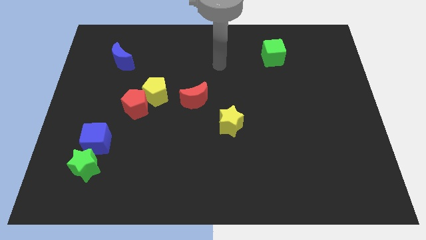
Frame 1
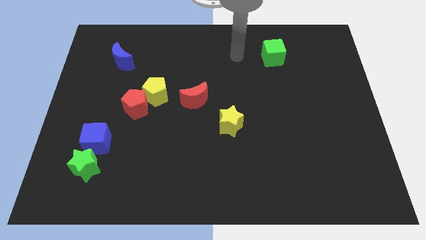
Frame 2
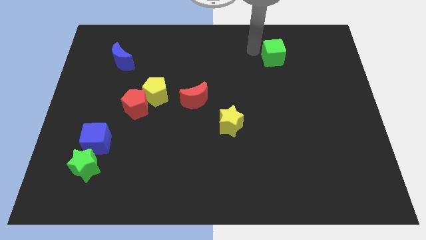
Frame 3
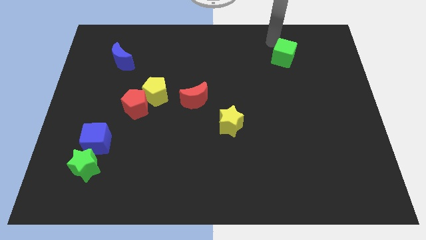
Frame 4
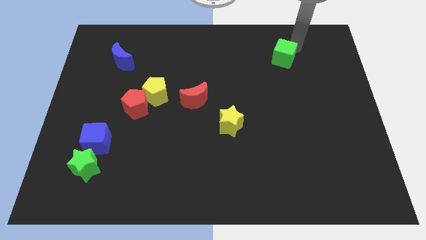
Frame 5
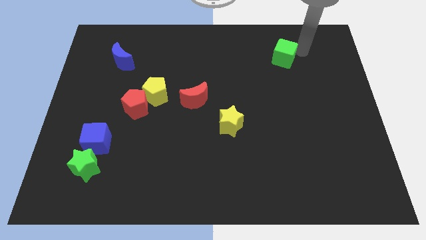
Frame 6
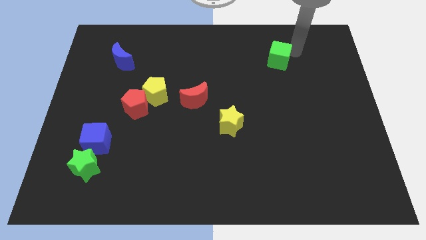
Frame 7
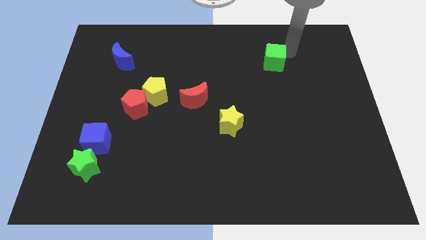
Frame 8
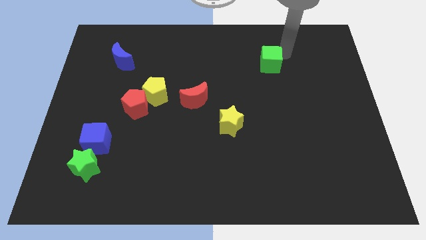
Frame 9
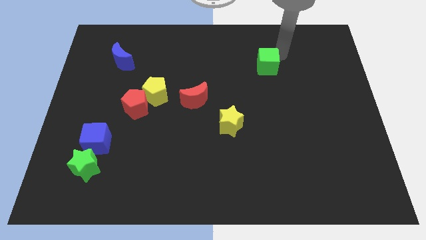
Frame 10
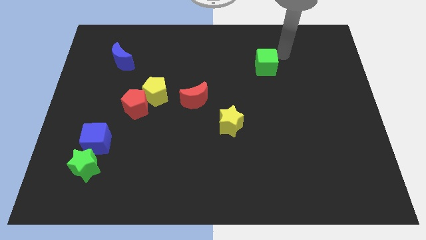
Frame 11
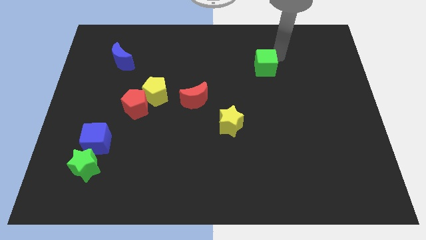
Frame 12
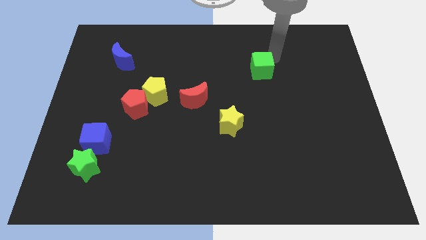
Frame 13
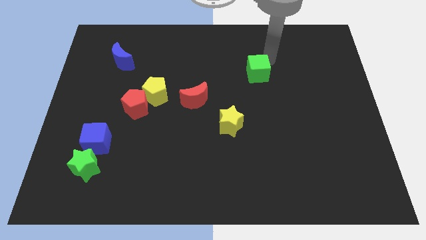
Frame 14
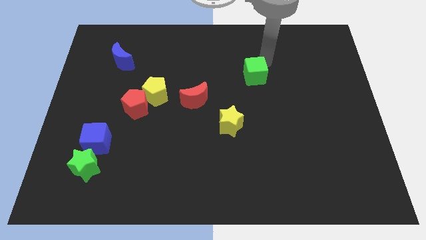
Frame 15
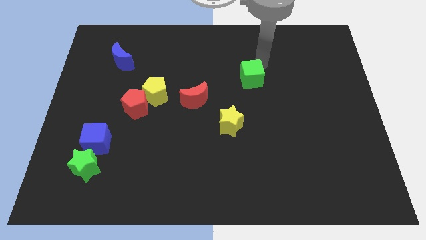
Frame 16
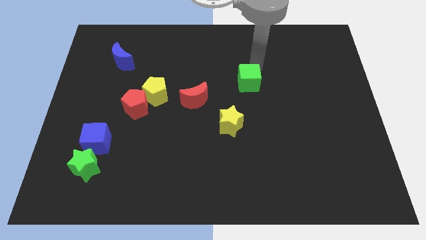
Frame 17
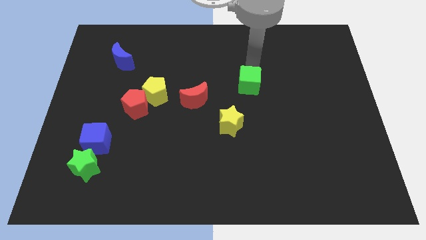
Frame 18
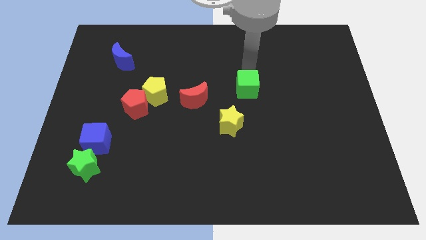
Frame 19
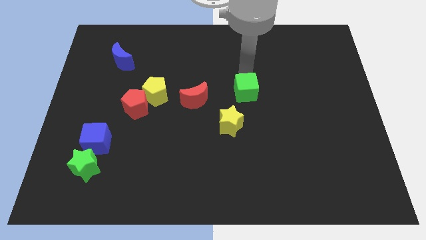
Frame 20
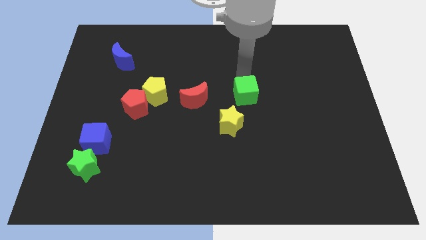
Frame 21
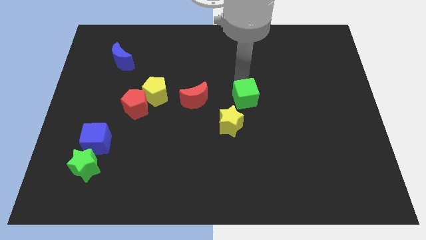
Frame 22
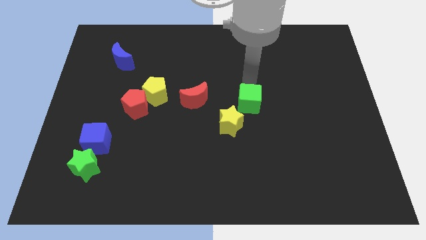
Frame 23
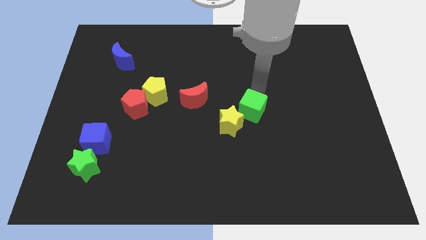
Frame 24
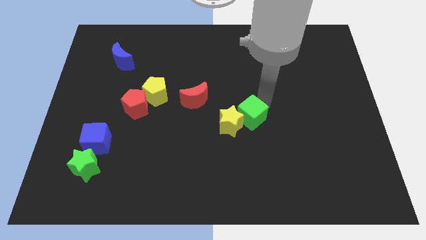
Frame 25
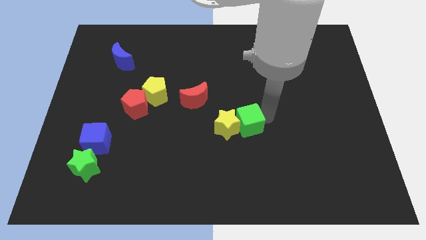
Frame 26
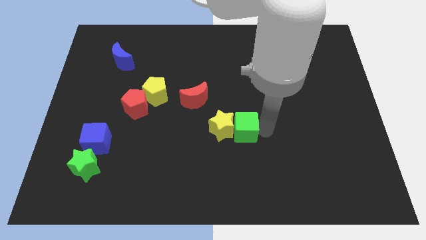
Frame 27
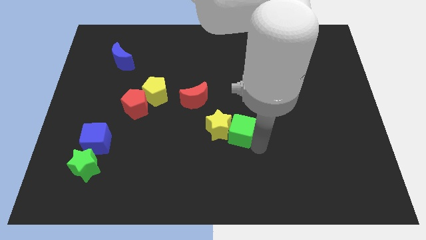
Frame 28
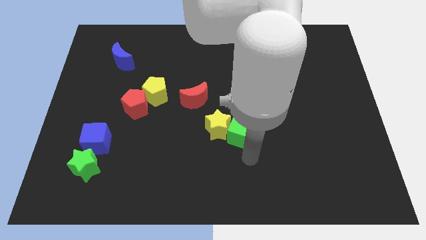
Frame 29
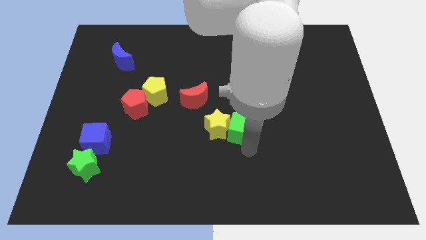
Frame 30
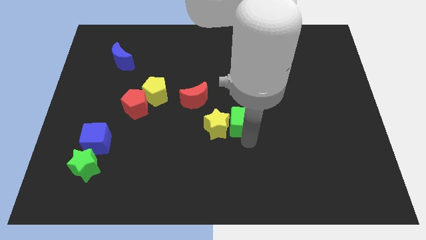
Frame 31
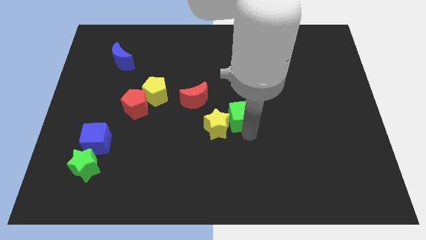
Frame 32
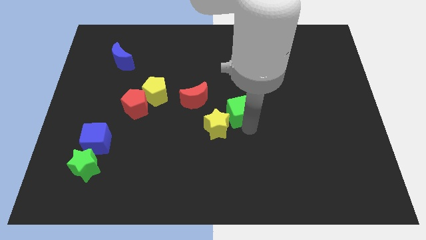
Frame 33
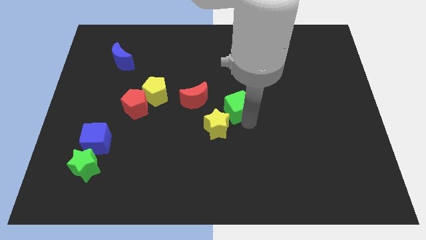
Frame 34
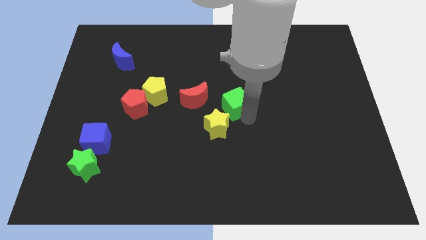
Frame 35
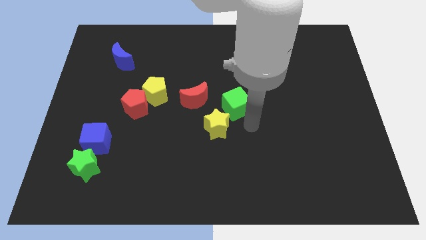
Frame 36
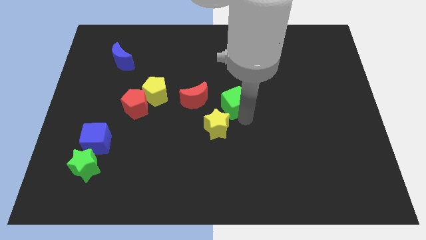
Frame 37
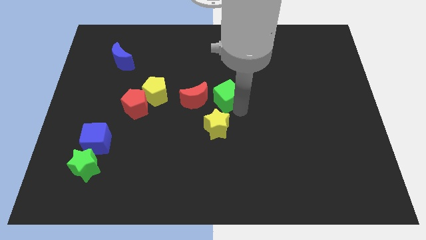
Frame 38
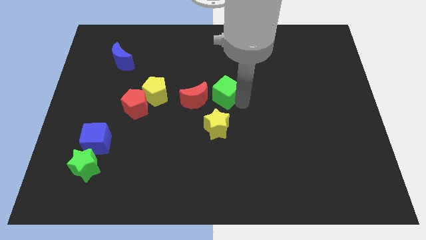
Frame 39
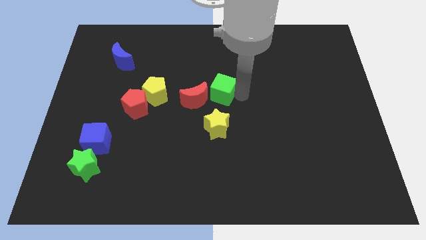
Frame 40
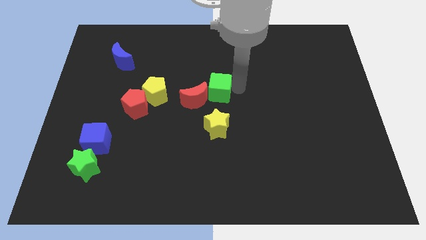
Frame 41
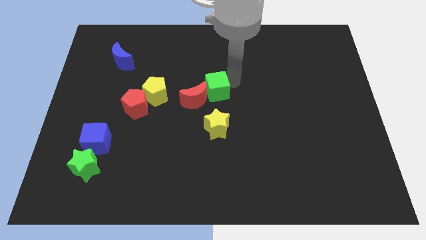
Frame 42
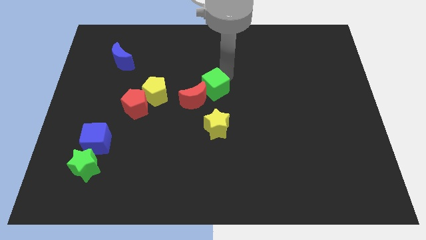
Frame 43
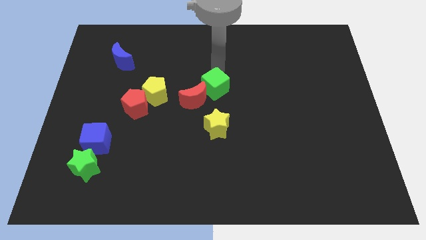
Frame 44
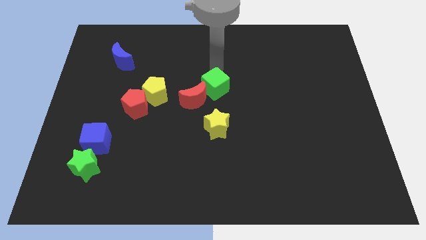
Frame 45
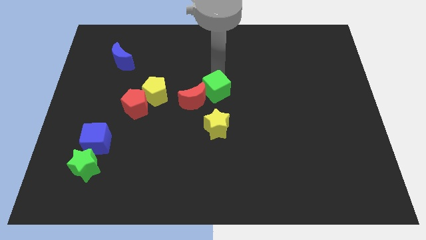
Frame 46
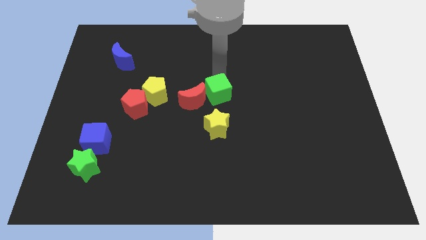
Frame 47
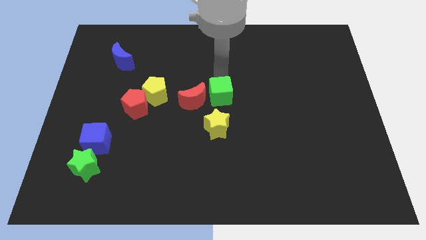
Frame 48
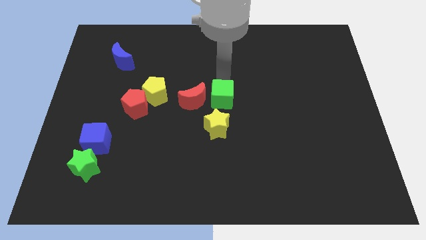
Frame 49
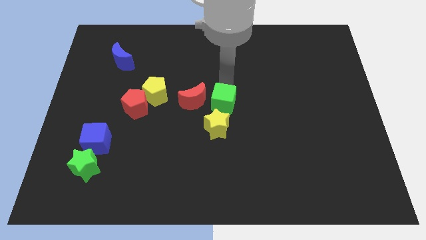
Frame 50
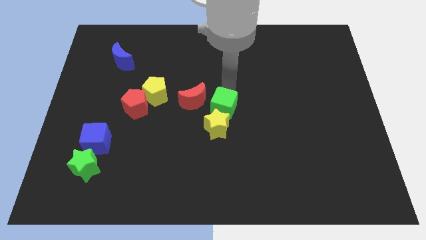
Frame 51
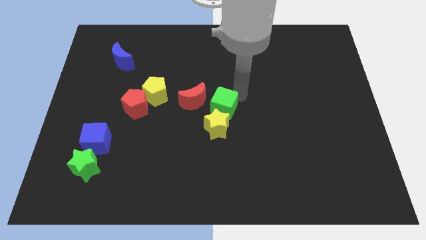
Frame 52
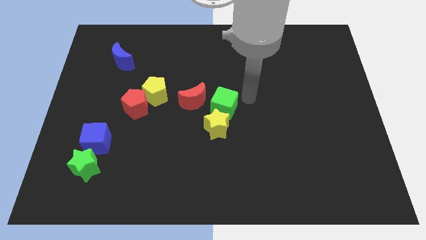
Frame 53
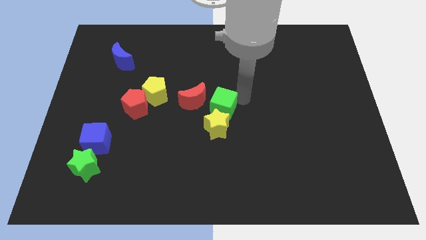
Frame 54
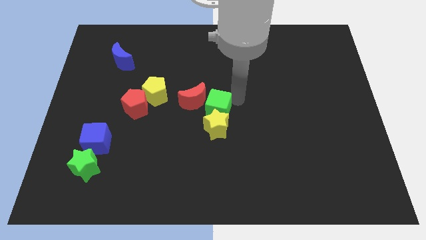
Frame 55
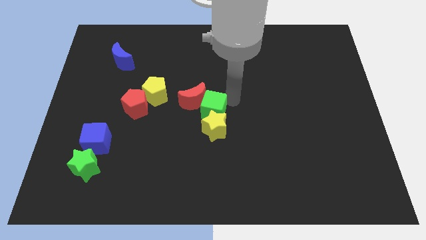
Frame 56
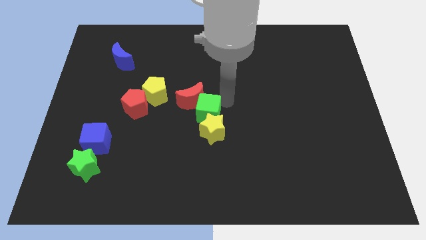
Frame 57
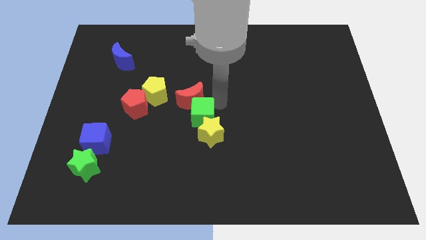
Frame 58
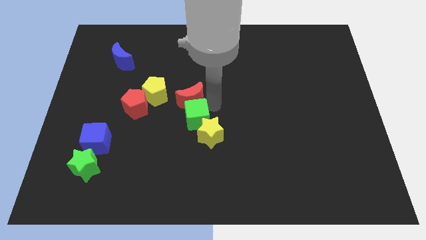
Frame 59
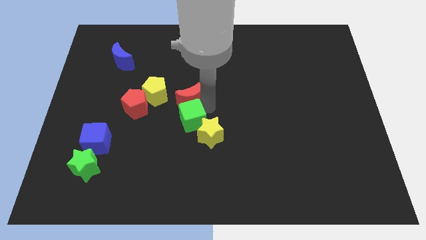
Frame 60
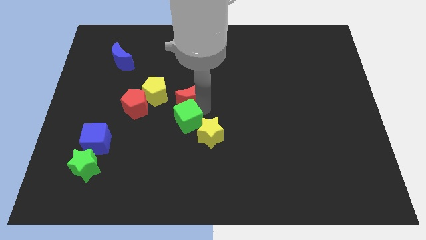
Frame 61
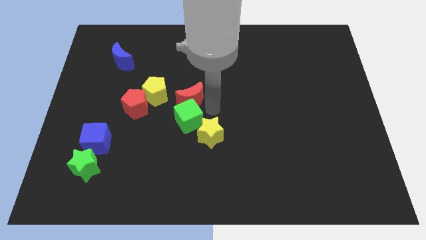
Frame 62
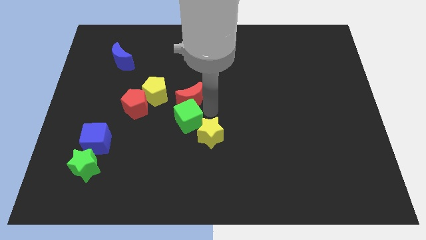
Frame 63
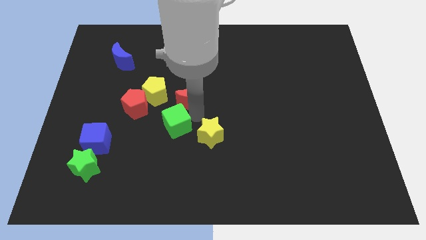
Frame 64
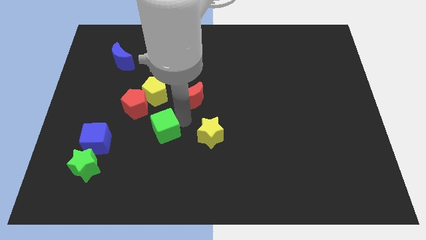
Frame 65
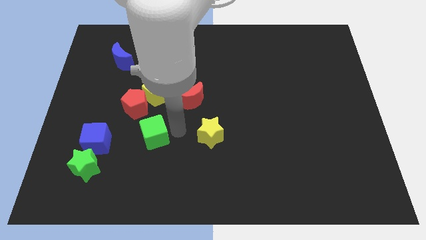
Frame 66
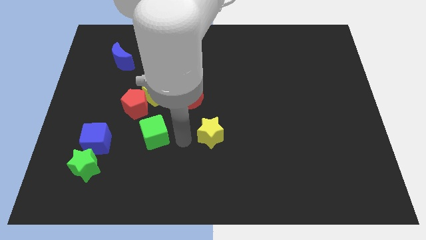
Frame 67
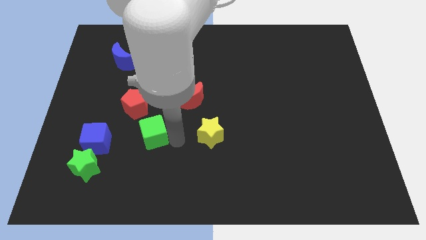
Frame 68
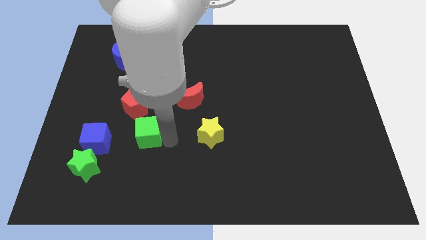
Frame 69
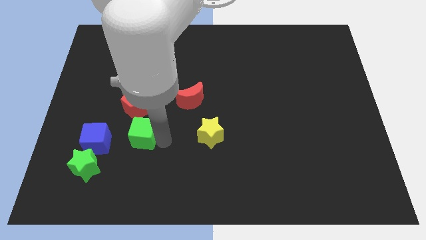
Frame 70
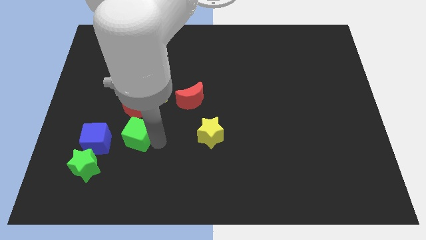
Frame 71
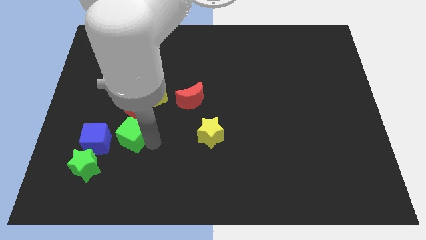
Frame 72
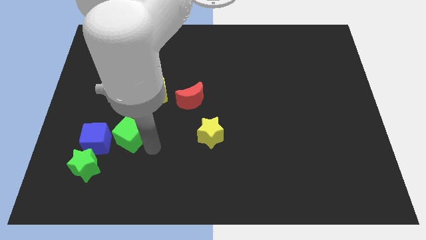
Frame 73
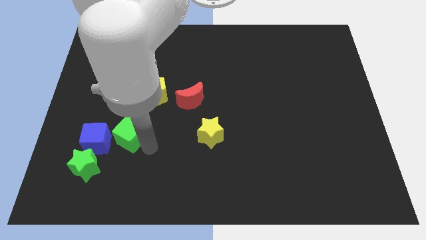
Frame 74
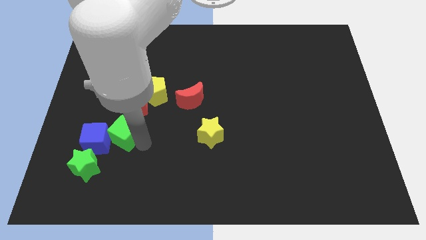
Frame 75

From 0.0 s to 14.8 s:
move the green cube diagonally down and to the left of the red pentagon

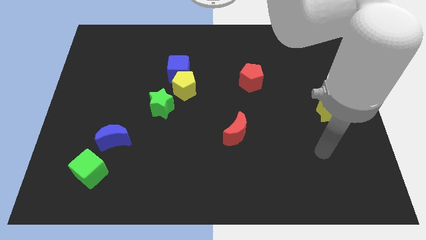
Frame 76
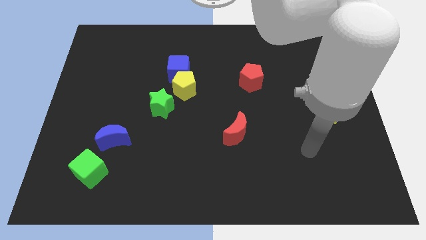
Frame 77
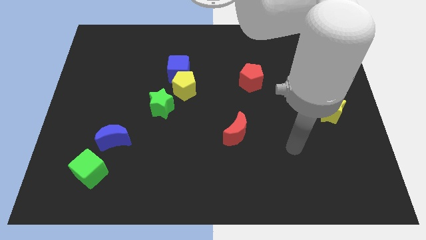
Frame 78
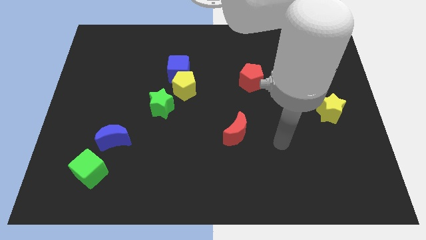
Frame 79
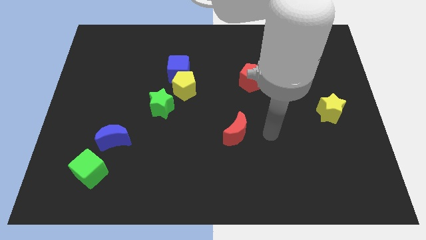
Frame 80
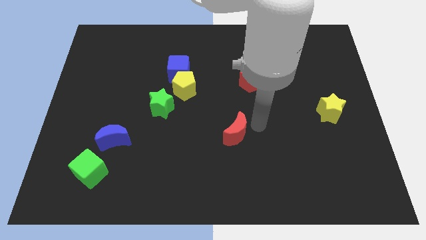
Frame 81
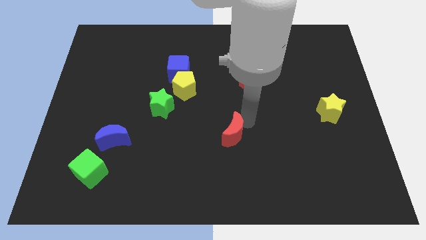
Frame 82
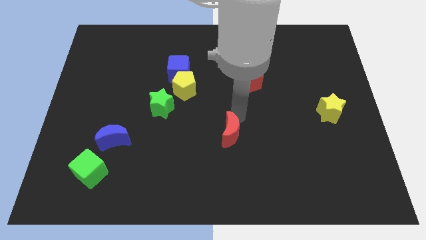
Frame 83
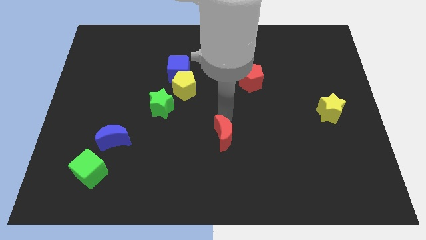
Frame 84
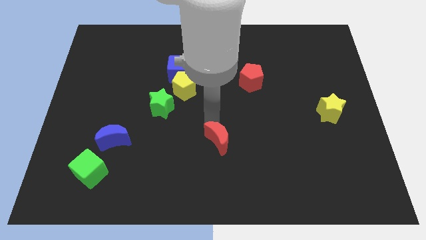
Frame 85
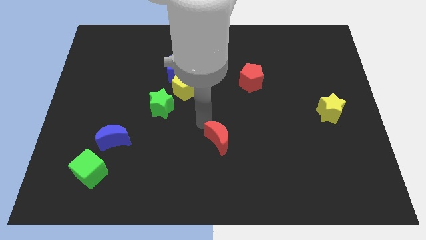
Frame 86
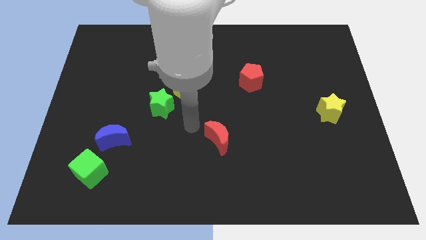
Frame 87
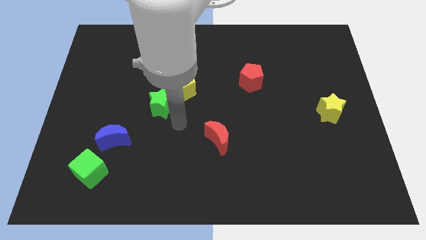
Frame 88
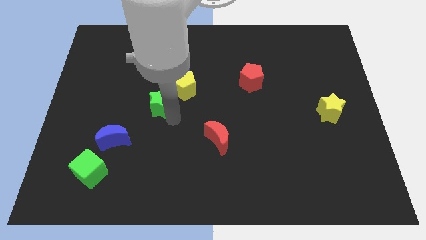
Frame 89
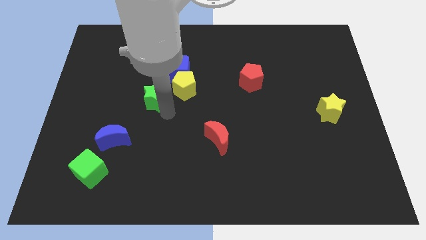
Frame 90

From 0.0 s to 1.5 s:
move the green star to the left side of the yellow pentagon
